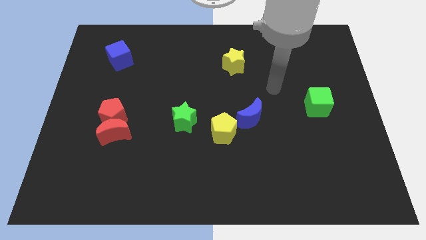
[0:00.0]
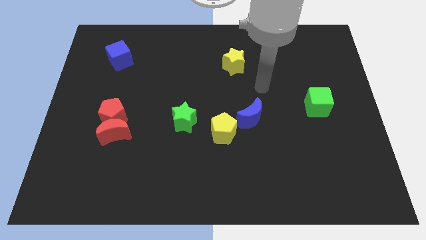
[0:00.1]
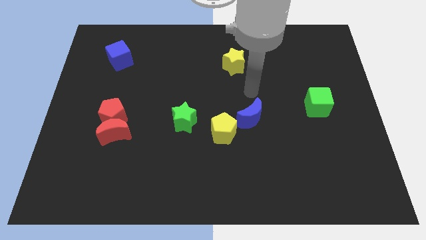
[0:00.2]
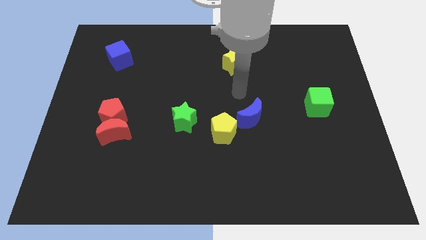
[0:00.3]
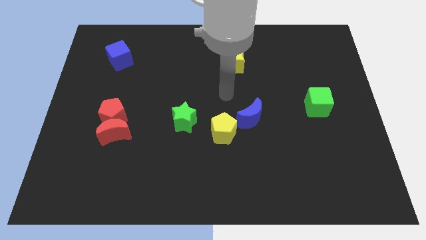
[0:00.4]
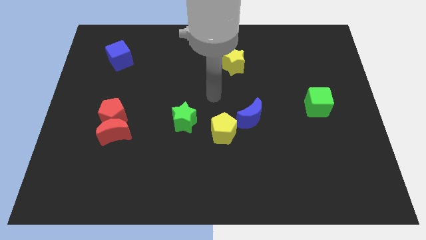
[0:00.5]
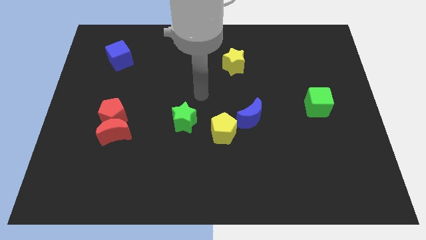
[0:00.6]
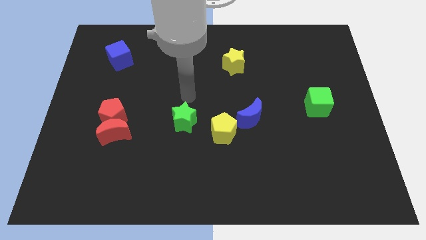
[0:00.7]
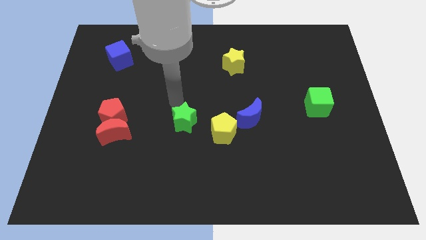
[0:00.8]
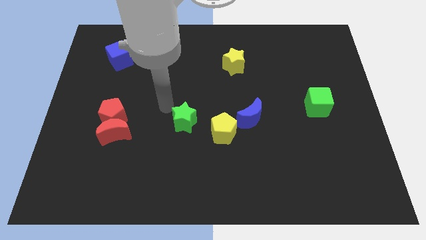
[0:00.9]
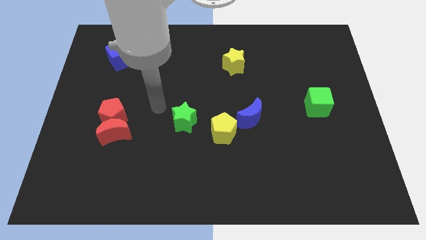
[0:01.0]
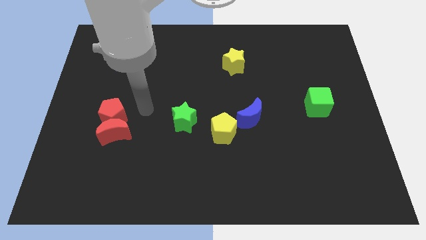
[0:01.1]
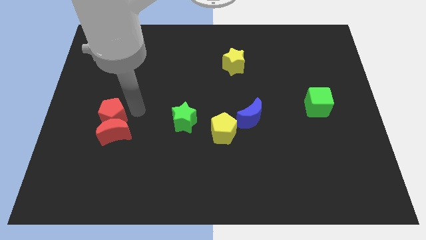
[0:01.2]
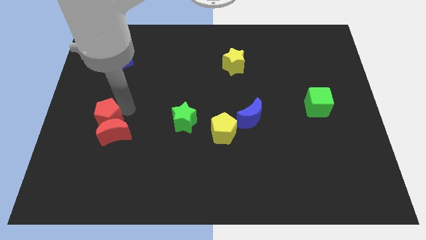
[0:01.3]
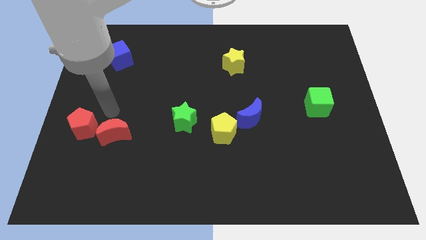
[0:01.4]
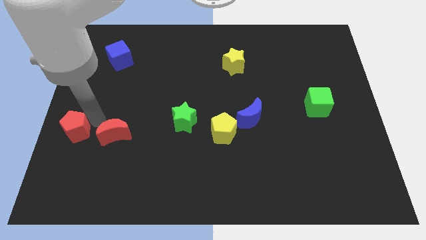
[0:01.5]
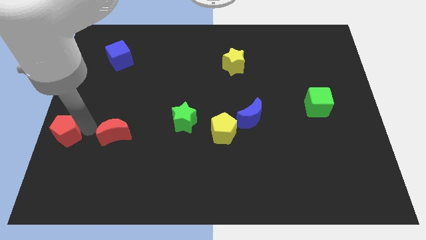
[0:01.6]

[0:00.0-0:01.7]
separate the red moon from the red pentagon

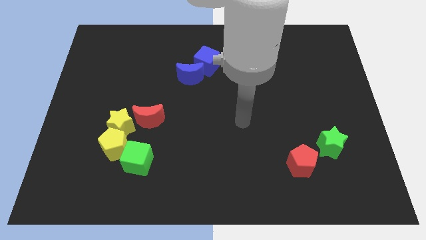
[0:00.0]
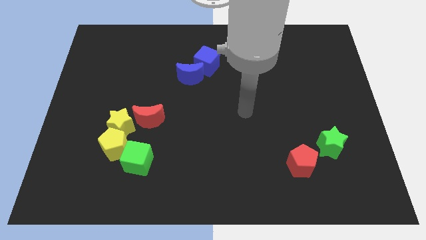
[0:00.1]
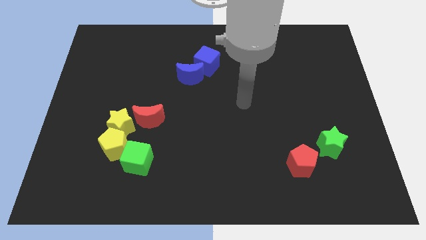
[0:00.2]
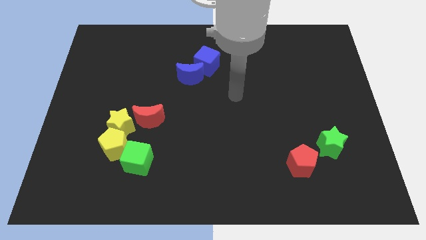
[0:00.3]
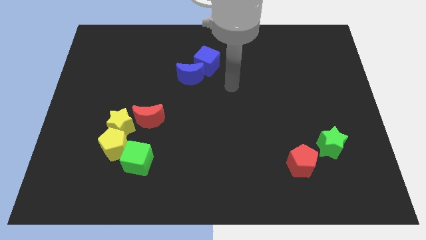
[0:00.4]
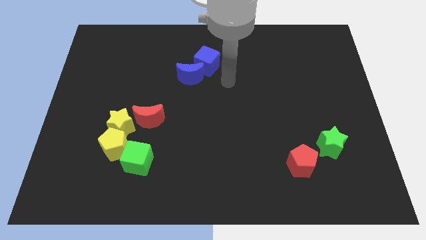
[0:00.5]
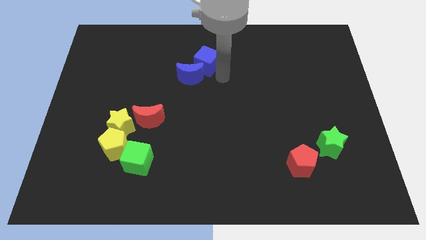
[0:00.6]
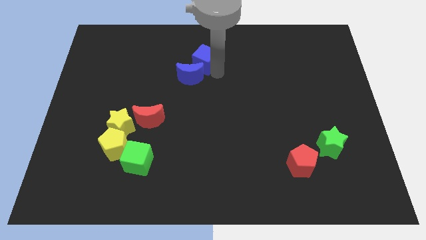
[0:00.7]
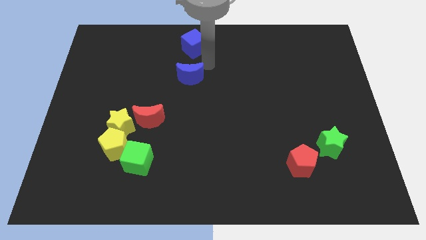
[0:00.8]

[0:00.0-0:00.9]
separate the blue moon from the blue cube

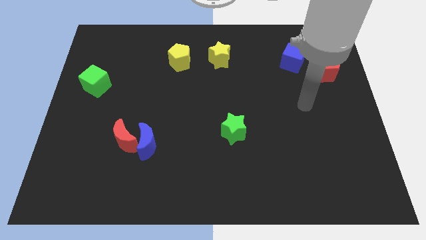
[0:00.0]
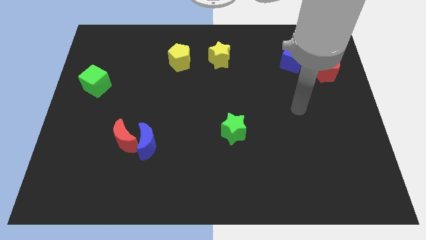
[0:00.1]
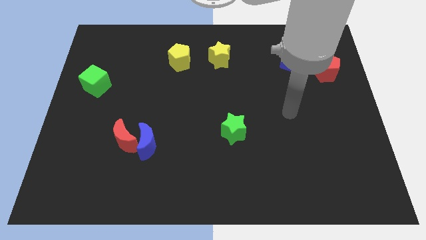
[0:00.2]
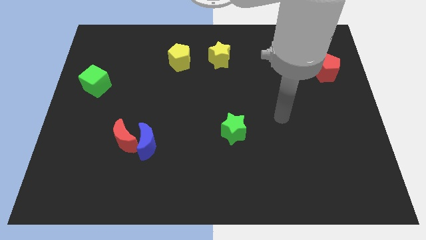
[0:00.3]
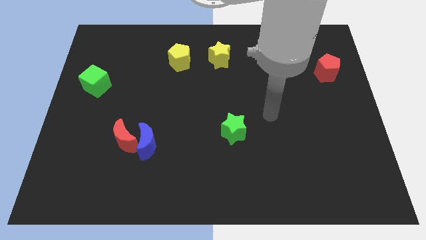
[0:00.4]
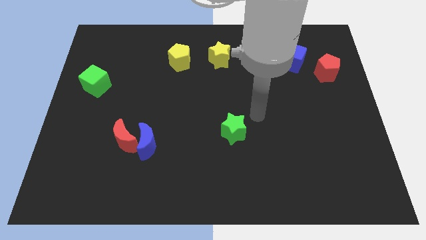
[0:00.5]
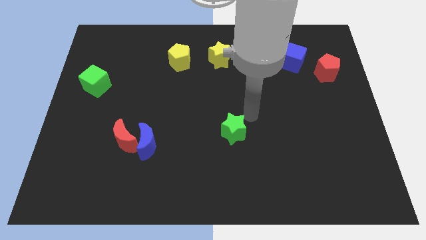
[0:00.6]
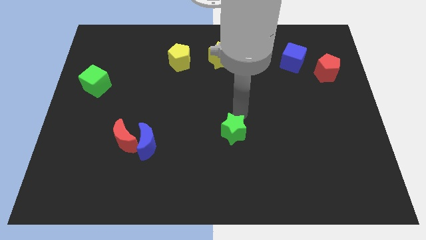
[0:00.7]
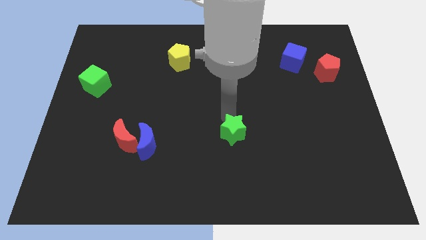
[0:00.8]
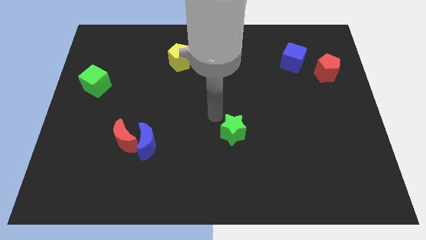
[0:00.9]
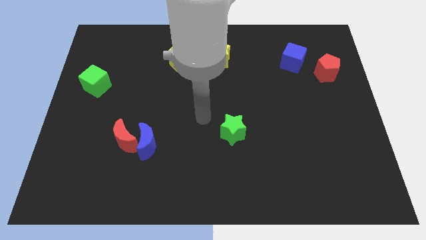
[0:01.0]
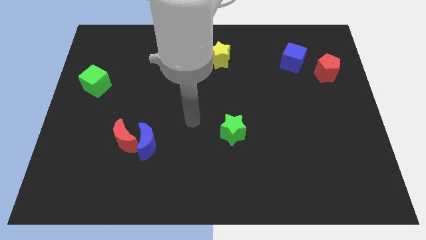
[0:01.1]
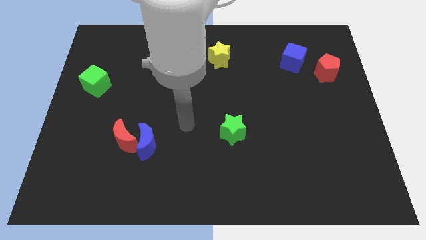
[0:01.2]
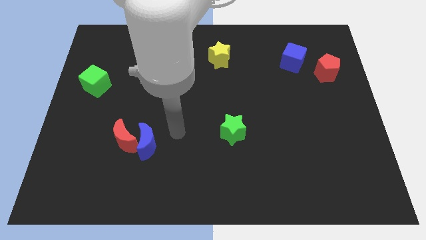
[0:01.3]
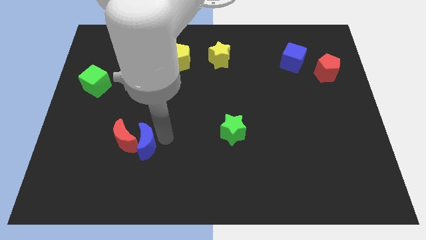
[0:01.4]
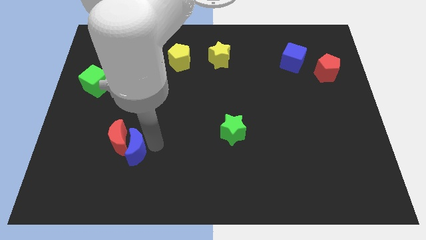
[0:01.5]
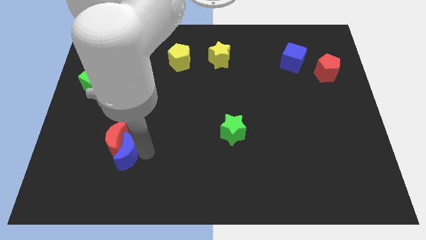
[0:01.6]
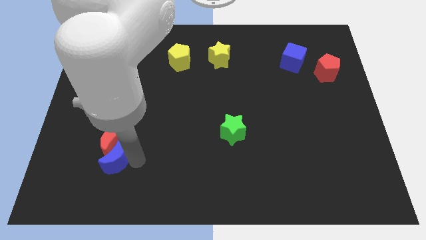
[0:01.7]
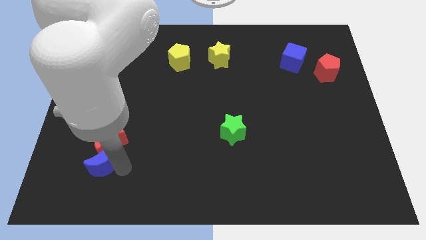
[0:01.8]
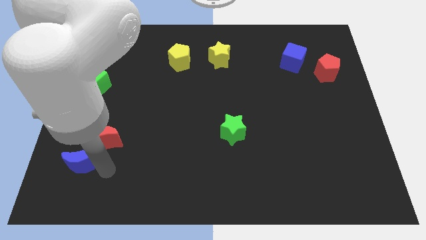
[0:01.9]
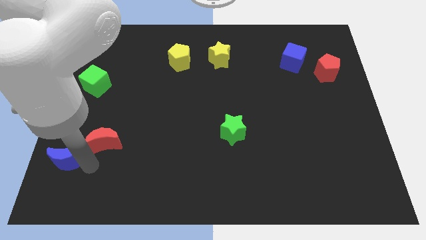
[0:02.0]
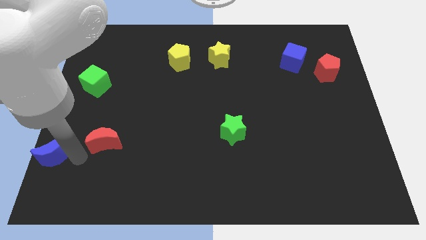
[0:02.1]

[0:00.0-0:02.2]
separate the red moon from the blue moon

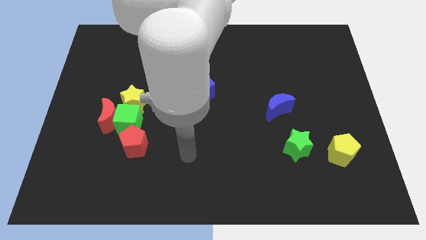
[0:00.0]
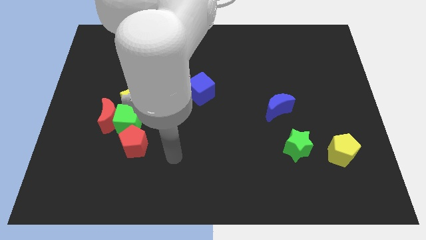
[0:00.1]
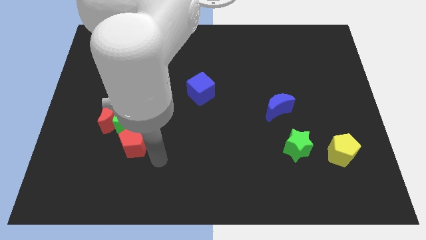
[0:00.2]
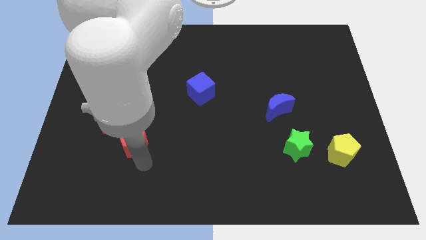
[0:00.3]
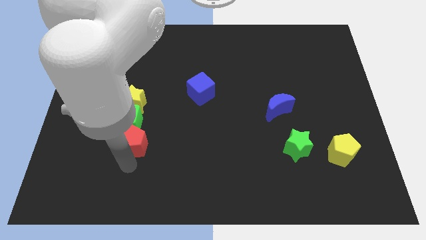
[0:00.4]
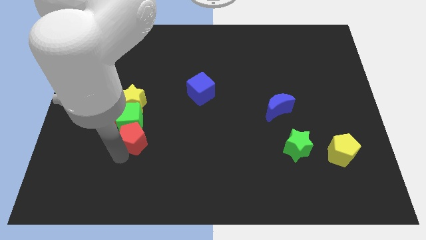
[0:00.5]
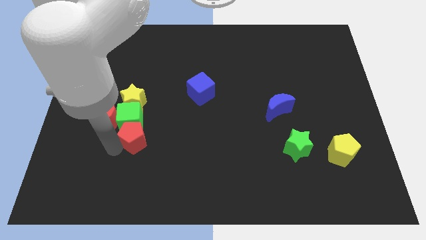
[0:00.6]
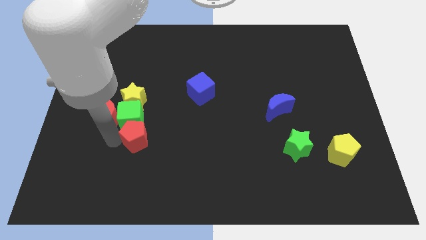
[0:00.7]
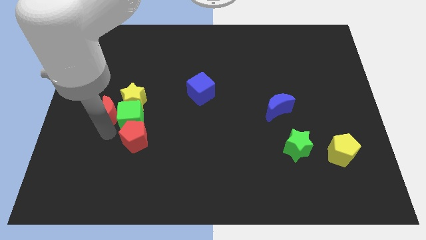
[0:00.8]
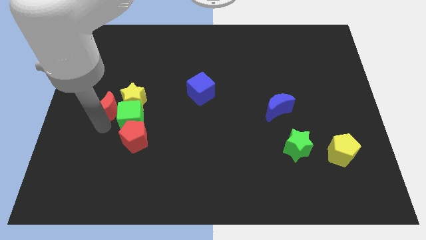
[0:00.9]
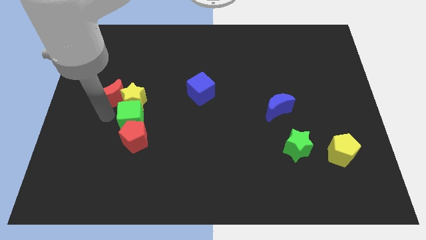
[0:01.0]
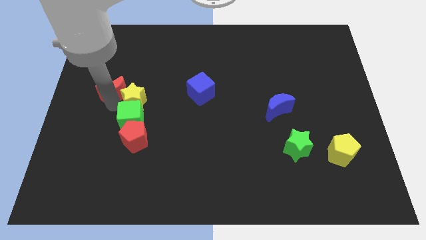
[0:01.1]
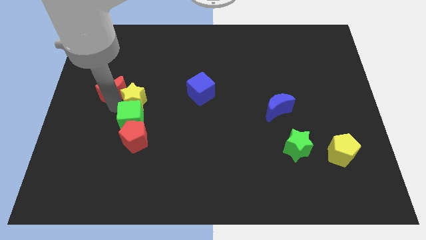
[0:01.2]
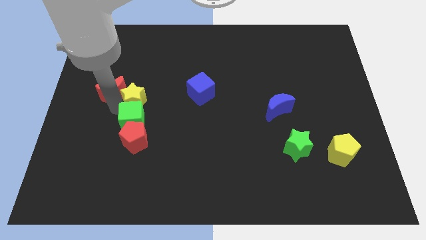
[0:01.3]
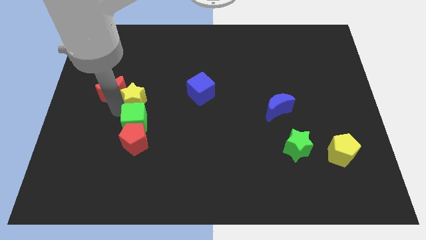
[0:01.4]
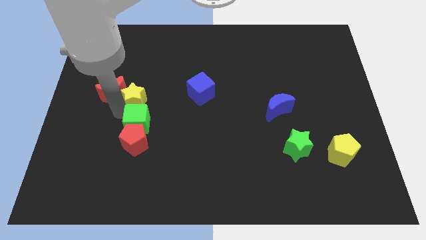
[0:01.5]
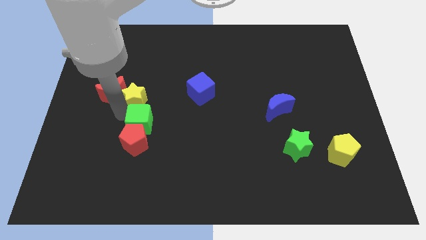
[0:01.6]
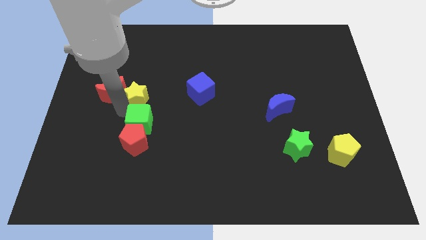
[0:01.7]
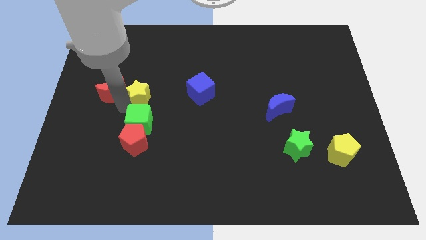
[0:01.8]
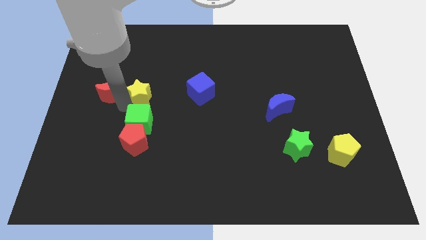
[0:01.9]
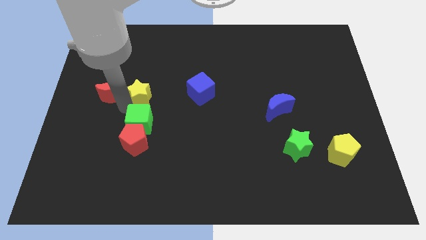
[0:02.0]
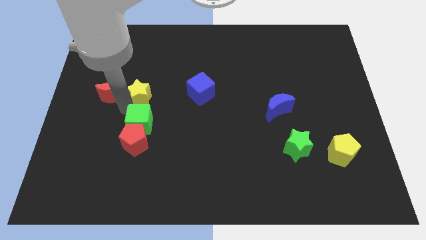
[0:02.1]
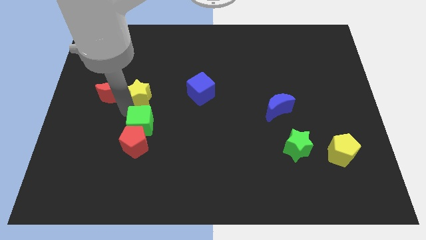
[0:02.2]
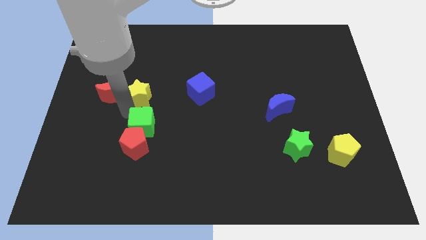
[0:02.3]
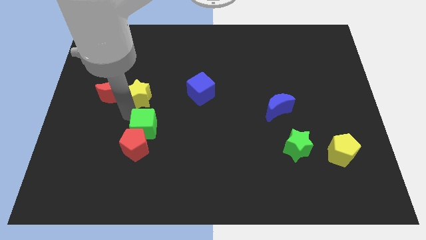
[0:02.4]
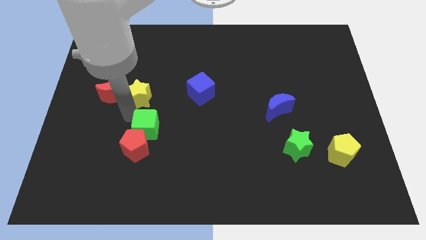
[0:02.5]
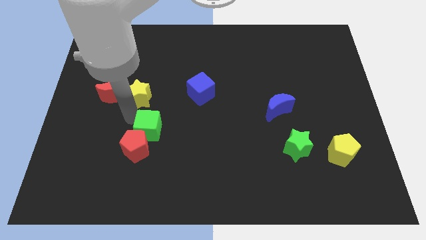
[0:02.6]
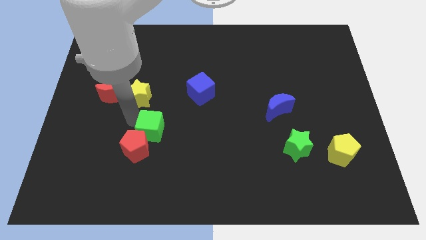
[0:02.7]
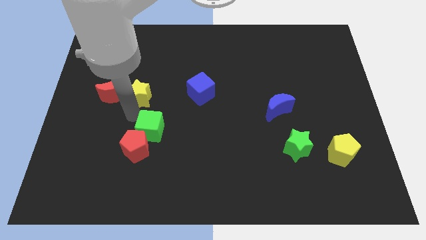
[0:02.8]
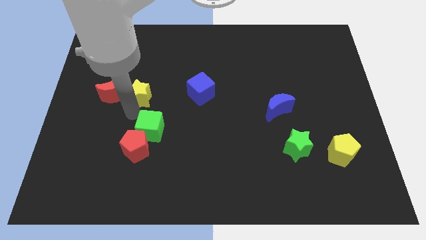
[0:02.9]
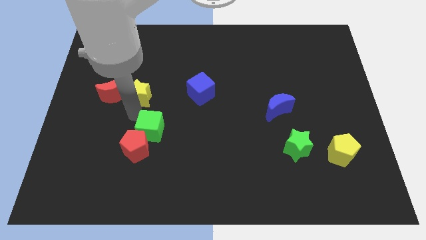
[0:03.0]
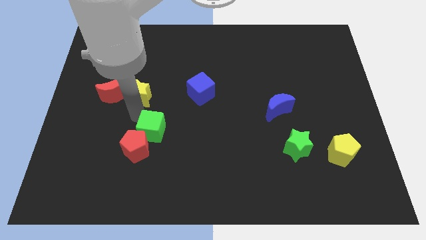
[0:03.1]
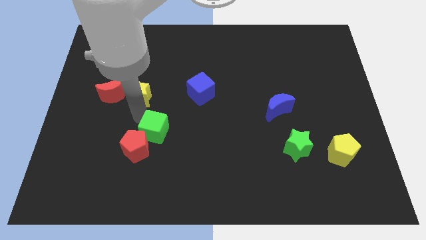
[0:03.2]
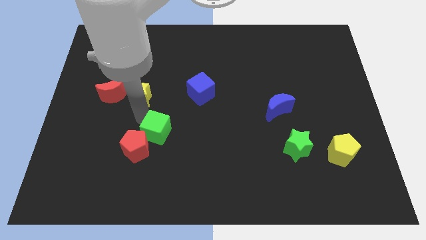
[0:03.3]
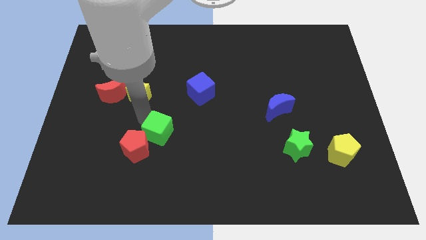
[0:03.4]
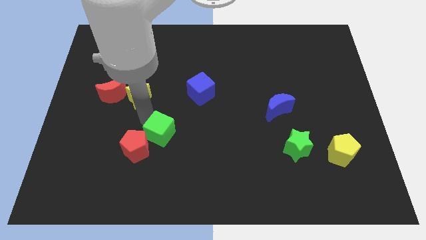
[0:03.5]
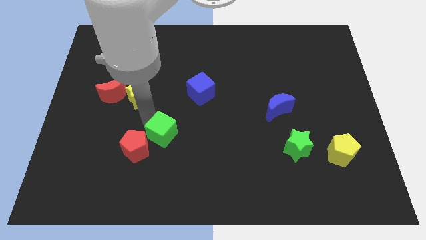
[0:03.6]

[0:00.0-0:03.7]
move the green cube away from the group of blocks

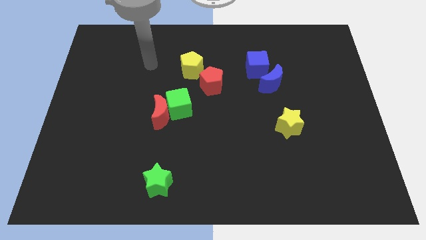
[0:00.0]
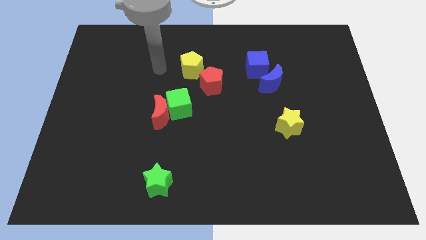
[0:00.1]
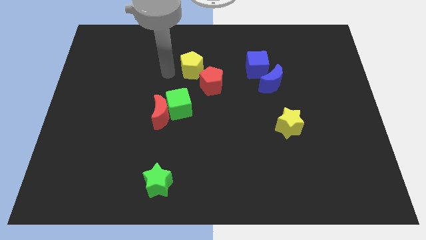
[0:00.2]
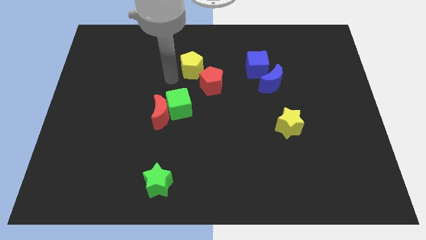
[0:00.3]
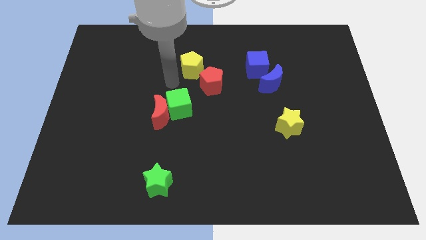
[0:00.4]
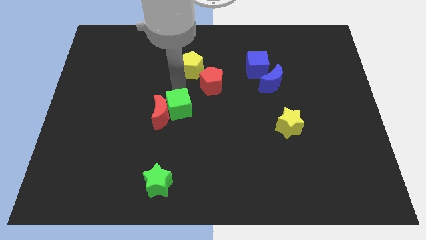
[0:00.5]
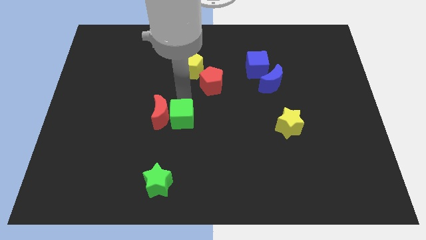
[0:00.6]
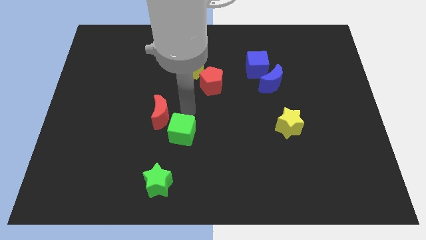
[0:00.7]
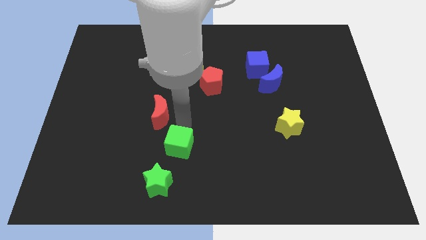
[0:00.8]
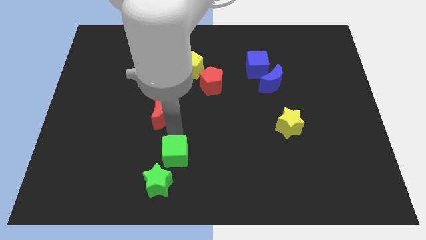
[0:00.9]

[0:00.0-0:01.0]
pull the red moon apart from the green cube
